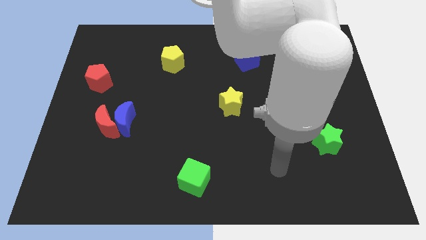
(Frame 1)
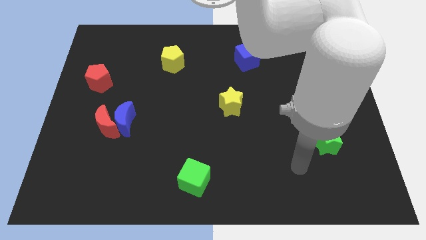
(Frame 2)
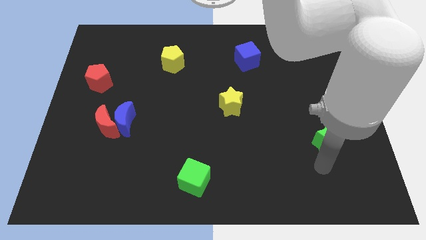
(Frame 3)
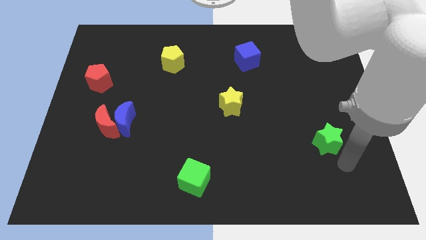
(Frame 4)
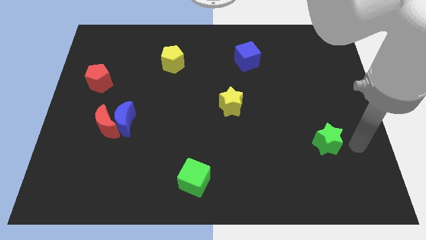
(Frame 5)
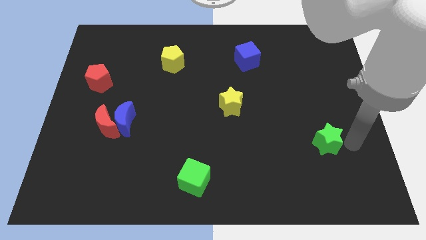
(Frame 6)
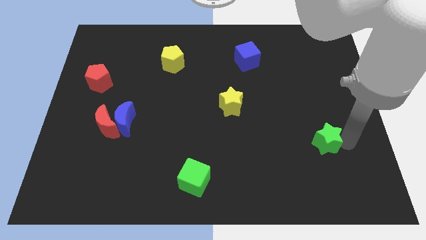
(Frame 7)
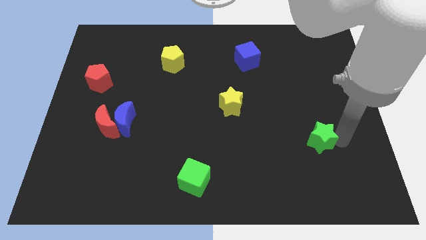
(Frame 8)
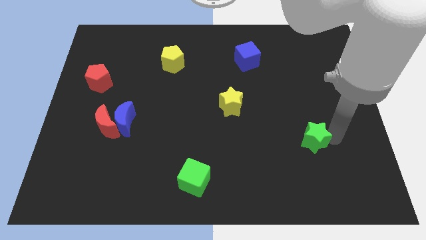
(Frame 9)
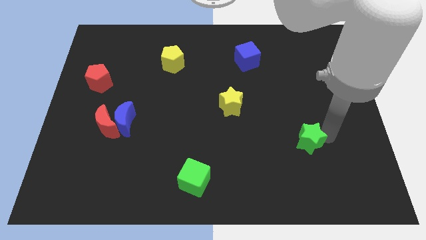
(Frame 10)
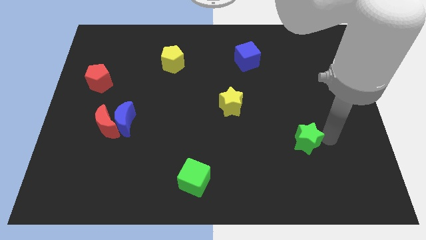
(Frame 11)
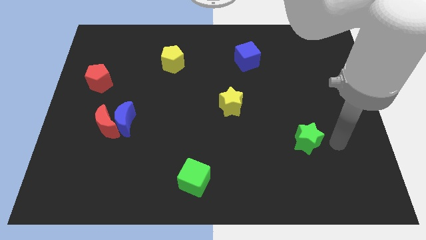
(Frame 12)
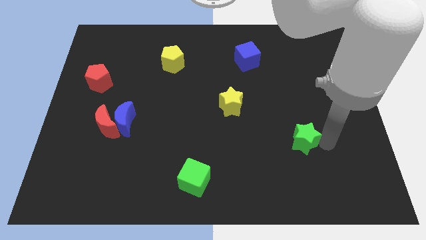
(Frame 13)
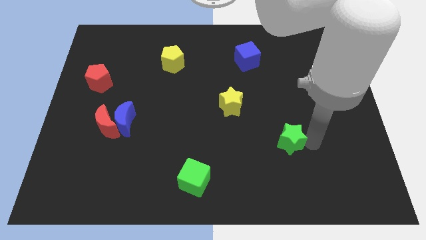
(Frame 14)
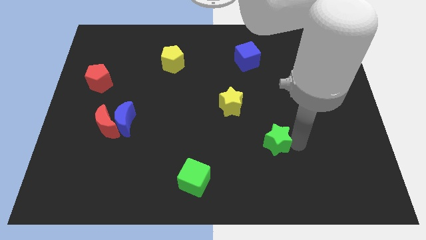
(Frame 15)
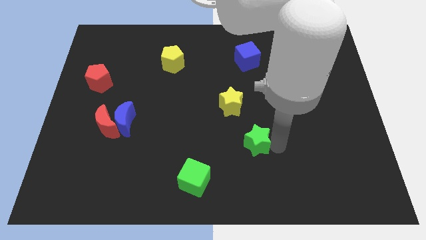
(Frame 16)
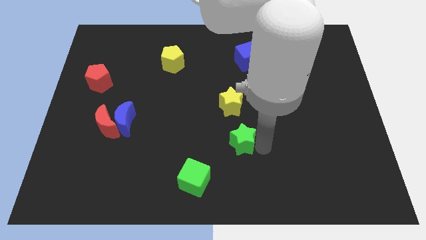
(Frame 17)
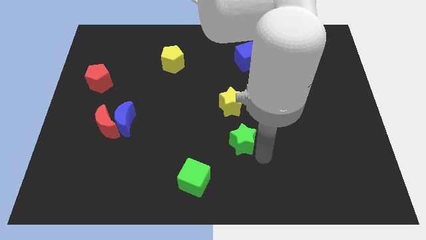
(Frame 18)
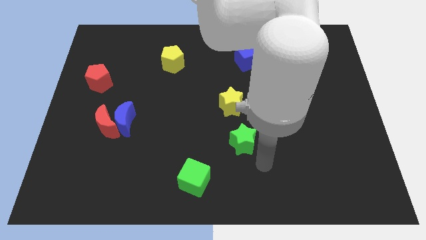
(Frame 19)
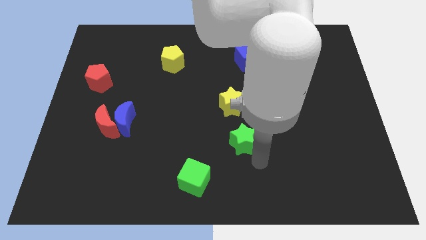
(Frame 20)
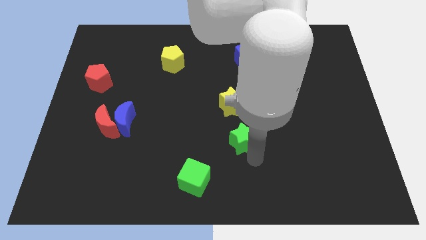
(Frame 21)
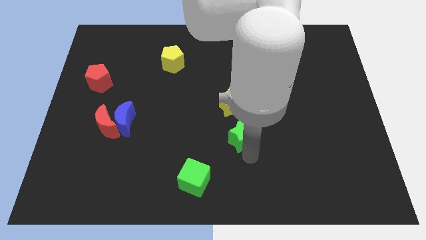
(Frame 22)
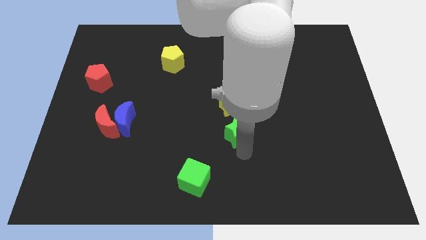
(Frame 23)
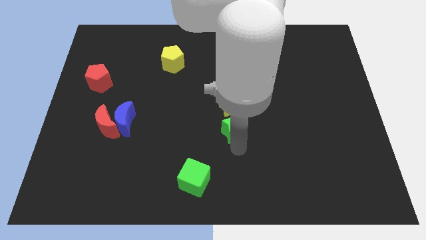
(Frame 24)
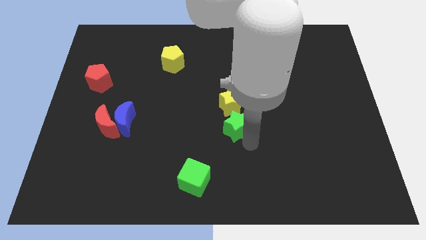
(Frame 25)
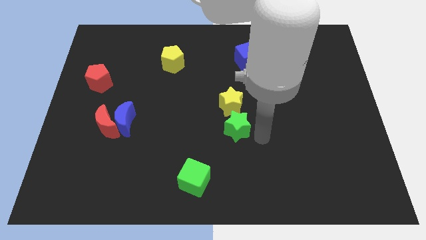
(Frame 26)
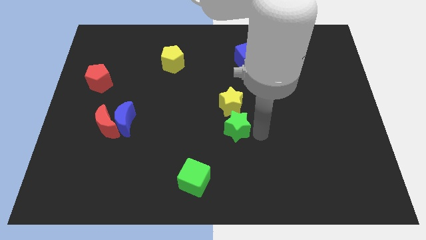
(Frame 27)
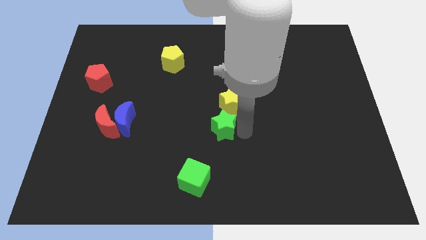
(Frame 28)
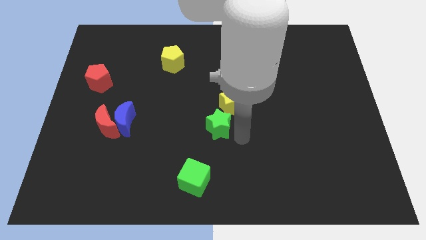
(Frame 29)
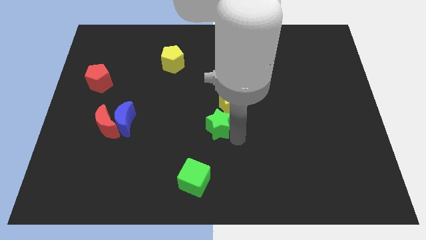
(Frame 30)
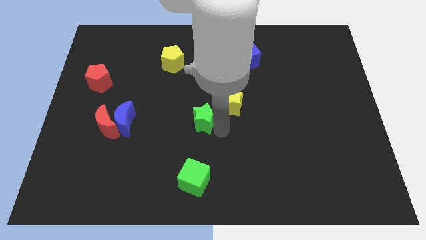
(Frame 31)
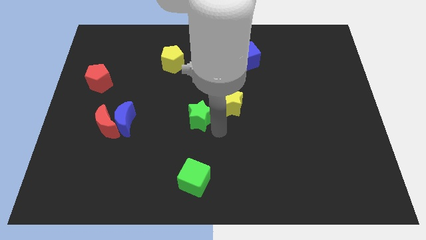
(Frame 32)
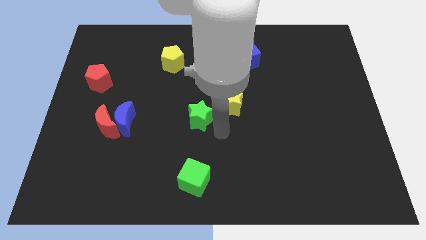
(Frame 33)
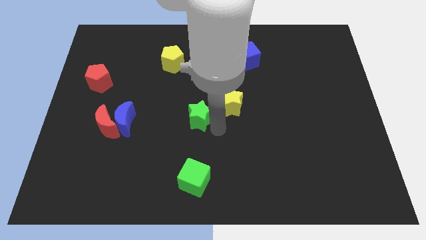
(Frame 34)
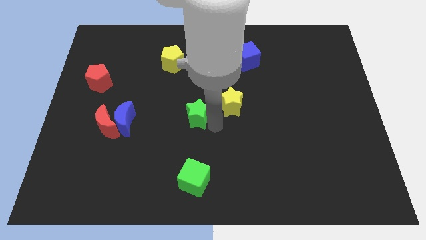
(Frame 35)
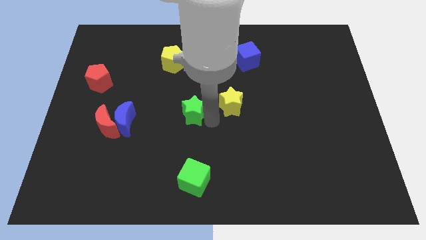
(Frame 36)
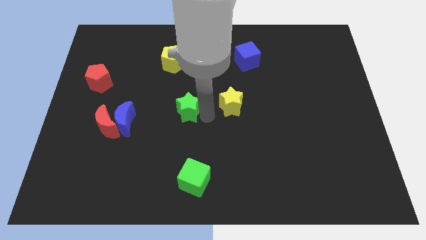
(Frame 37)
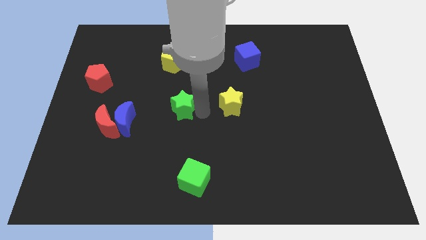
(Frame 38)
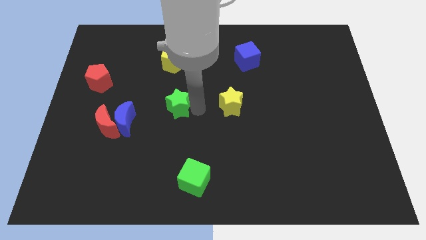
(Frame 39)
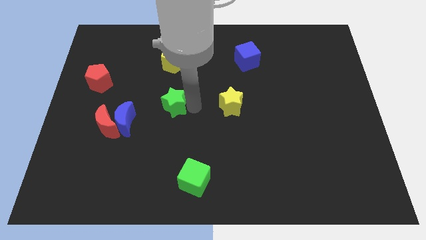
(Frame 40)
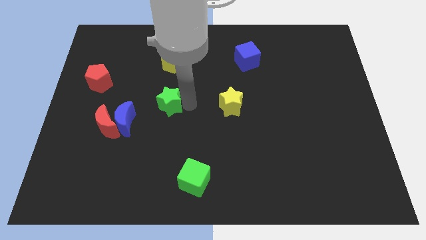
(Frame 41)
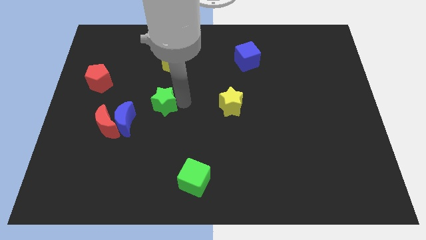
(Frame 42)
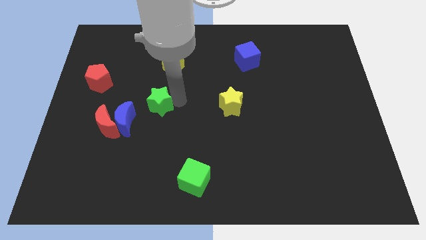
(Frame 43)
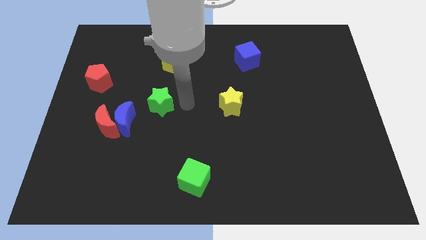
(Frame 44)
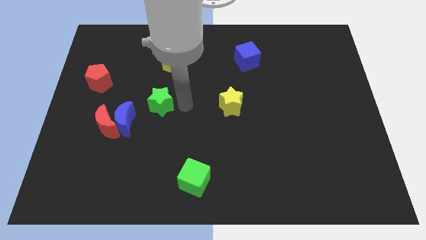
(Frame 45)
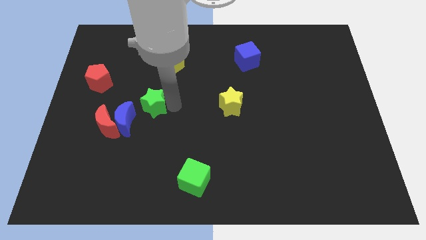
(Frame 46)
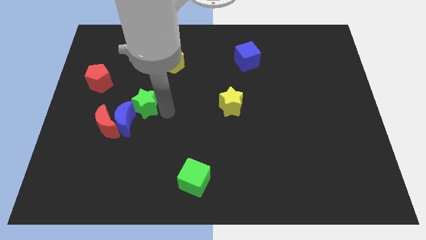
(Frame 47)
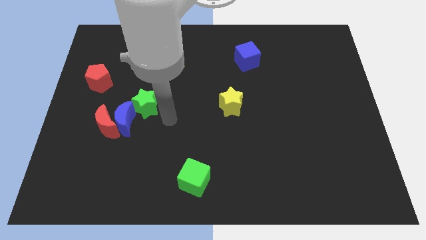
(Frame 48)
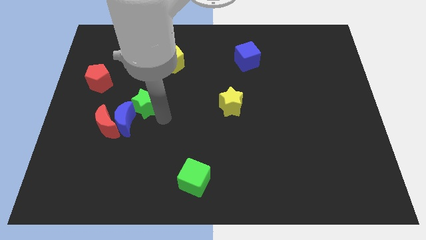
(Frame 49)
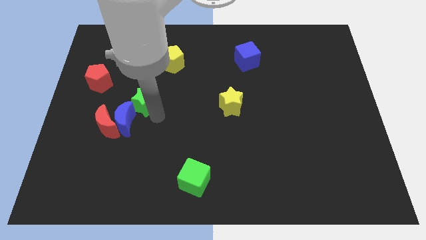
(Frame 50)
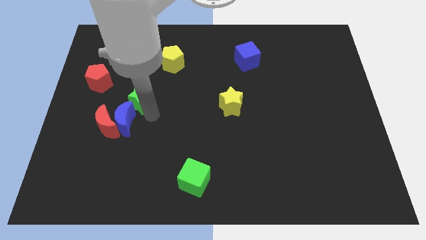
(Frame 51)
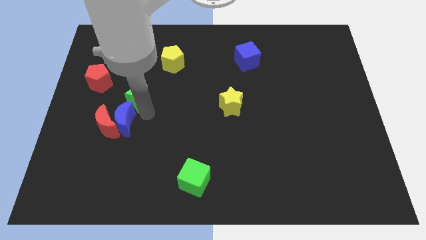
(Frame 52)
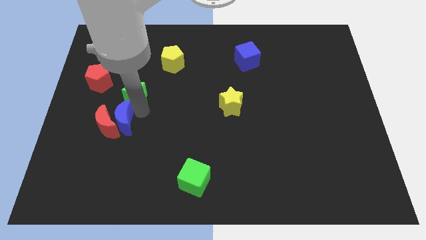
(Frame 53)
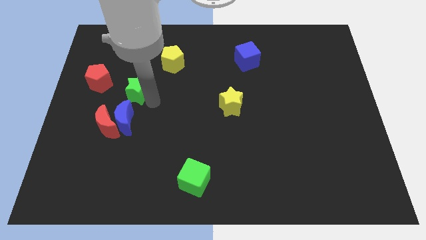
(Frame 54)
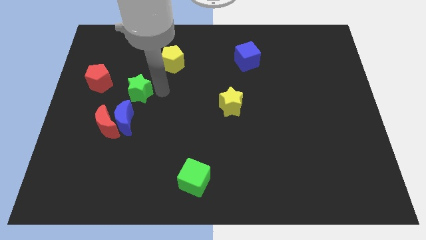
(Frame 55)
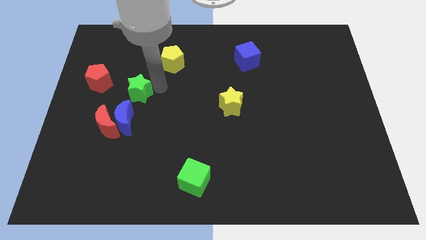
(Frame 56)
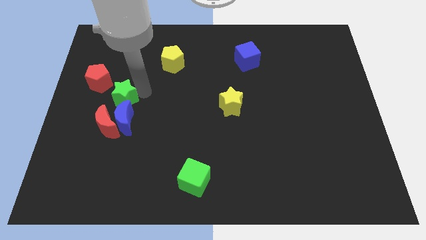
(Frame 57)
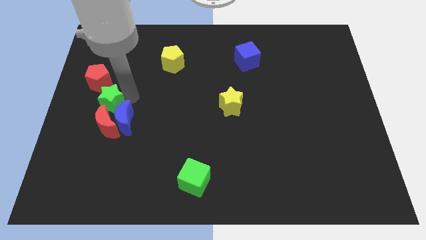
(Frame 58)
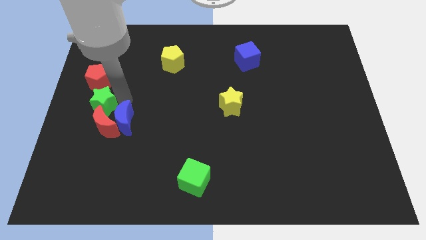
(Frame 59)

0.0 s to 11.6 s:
put the green star to the left side of the board
